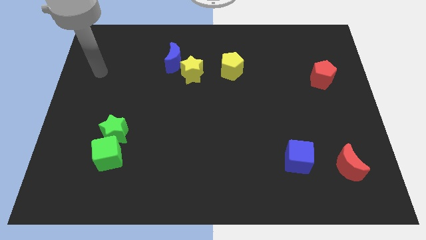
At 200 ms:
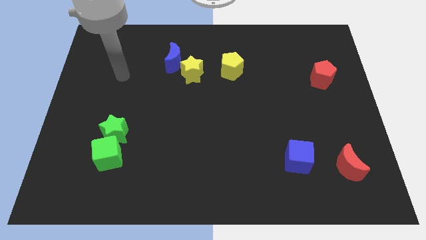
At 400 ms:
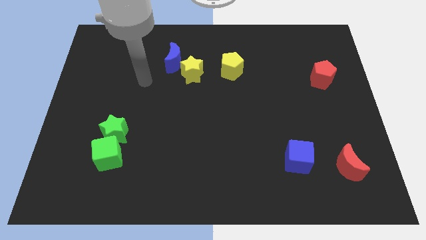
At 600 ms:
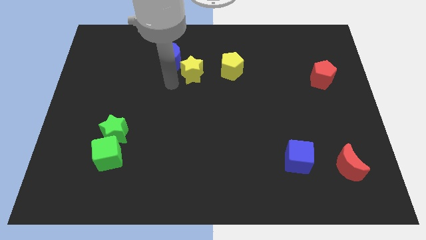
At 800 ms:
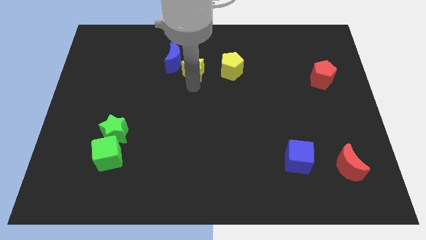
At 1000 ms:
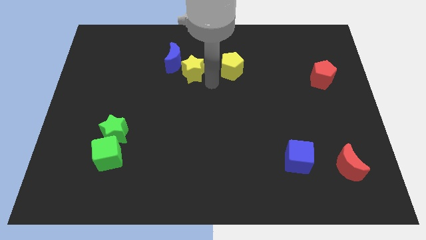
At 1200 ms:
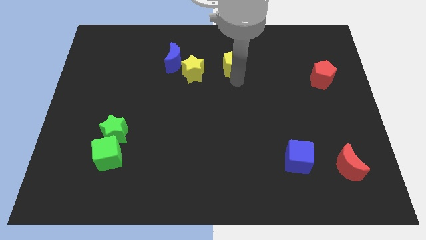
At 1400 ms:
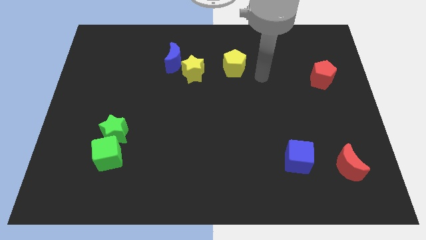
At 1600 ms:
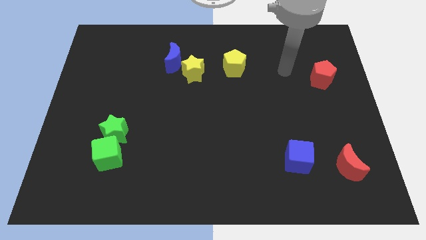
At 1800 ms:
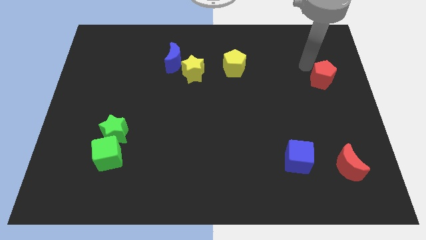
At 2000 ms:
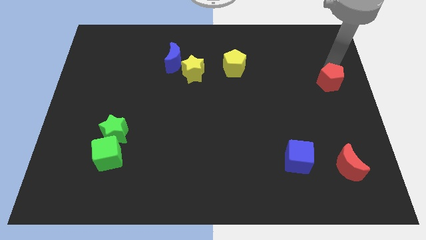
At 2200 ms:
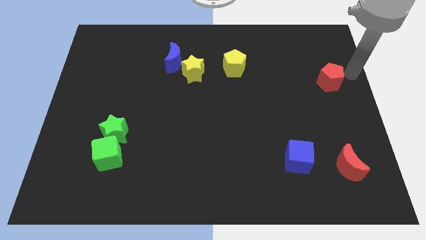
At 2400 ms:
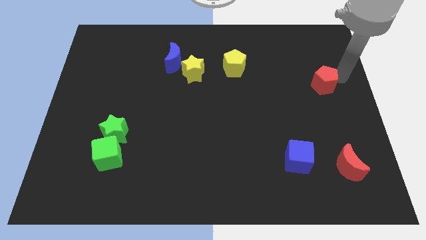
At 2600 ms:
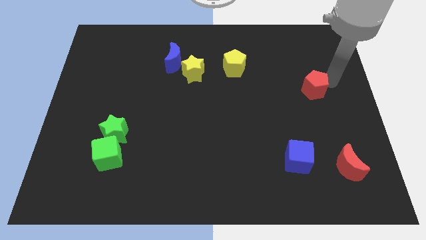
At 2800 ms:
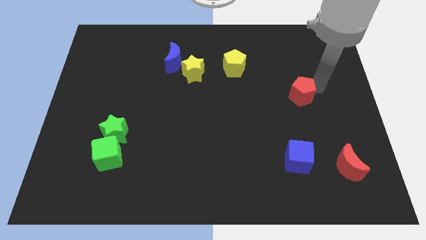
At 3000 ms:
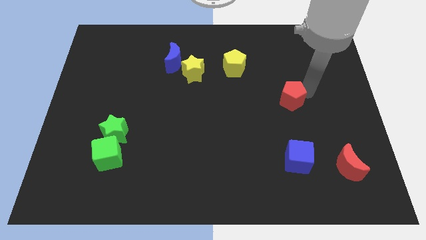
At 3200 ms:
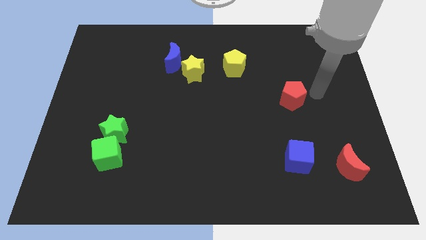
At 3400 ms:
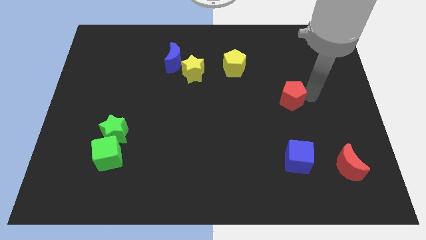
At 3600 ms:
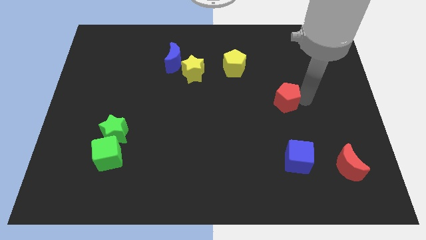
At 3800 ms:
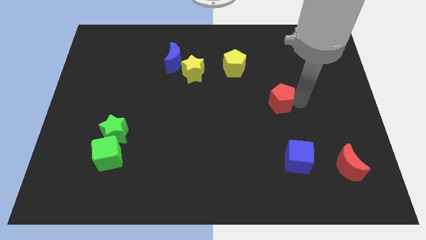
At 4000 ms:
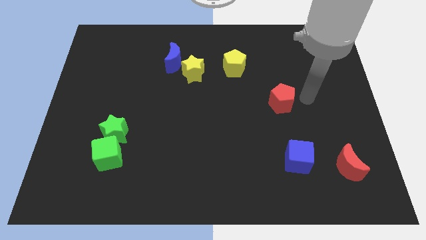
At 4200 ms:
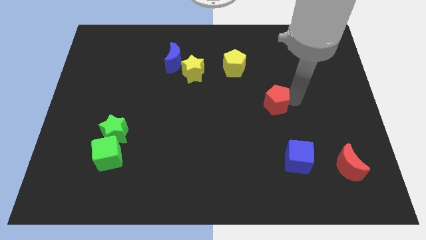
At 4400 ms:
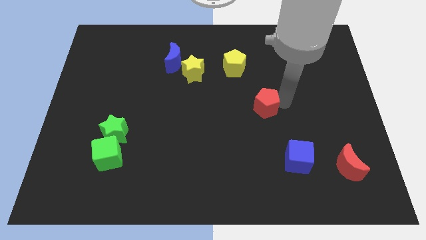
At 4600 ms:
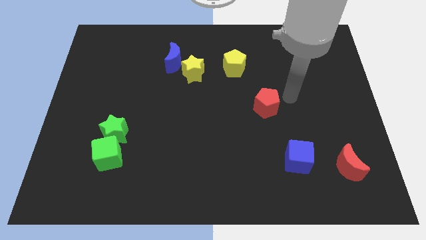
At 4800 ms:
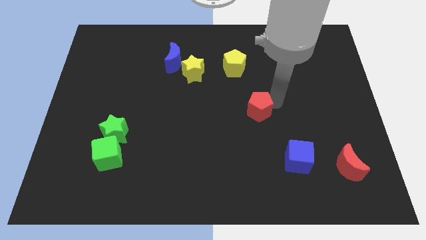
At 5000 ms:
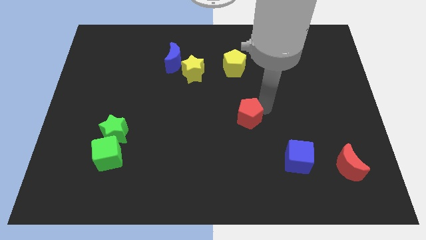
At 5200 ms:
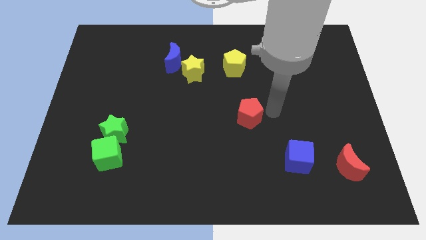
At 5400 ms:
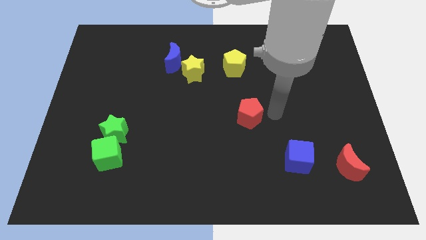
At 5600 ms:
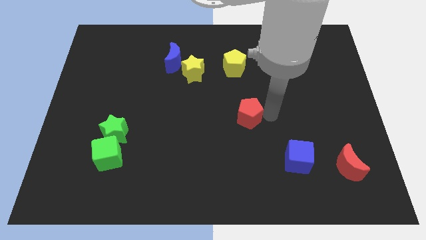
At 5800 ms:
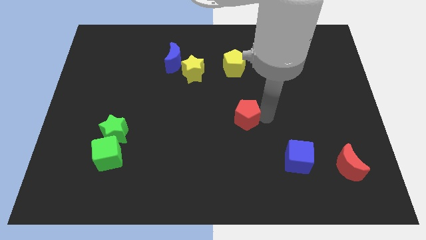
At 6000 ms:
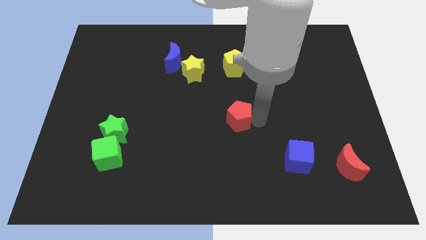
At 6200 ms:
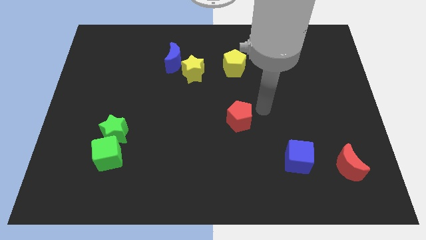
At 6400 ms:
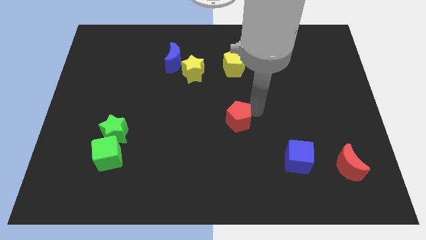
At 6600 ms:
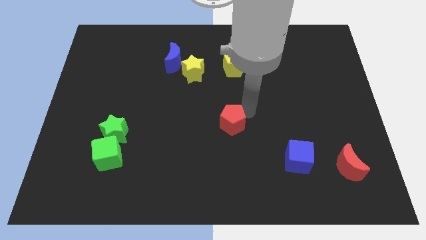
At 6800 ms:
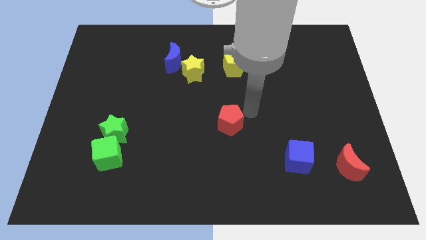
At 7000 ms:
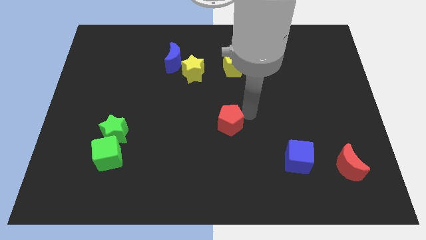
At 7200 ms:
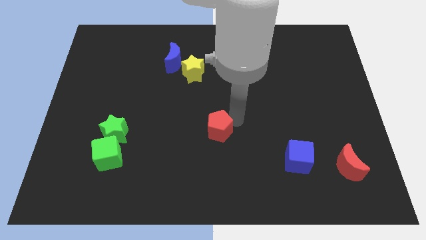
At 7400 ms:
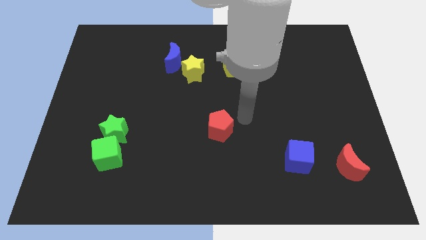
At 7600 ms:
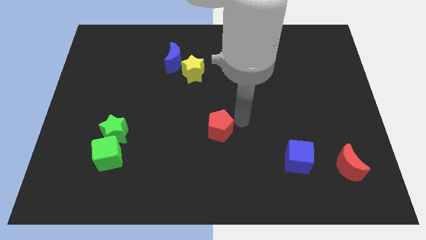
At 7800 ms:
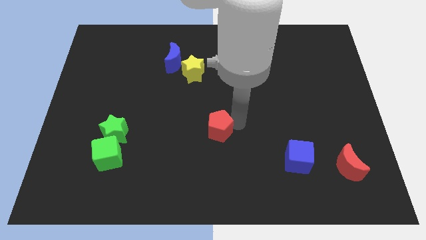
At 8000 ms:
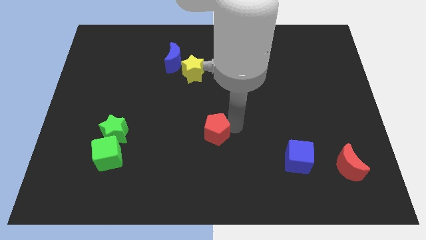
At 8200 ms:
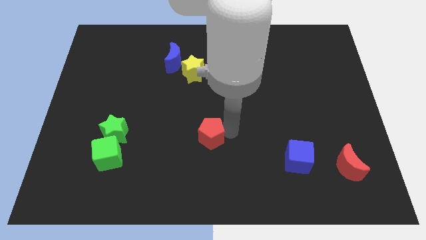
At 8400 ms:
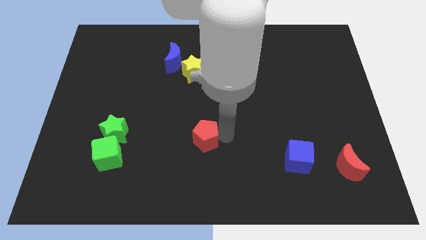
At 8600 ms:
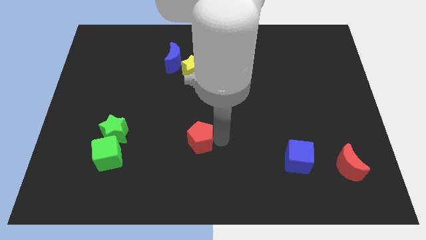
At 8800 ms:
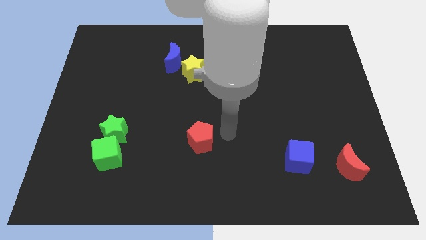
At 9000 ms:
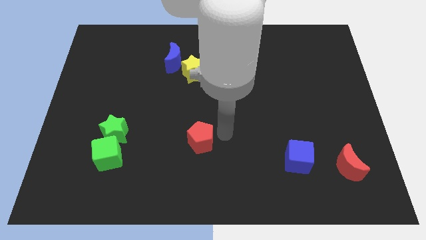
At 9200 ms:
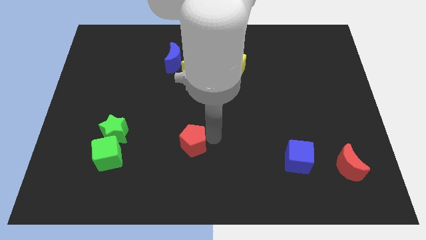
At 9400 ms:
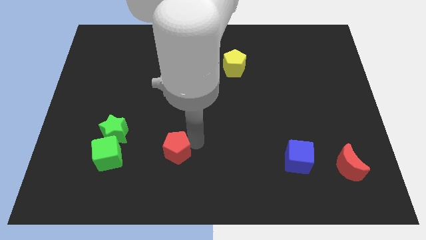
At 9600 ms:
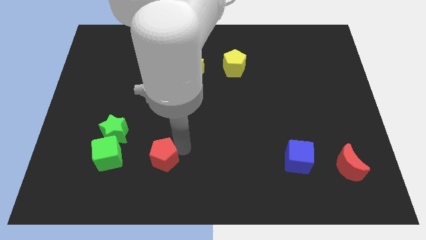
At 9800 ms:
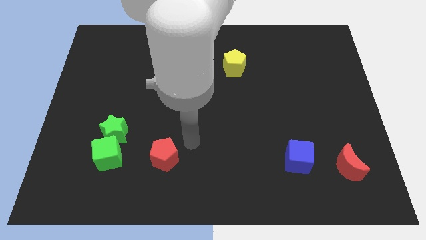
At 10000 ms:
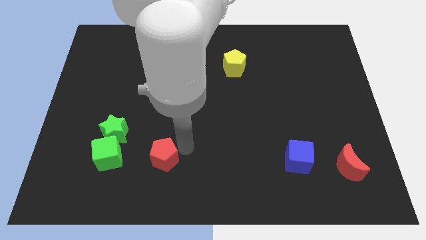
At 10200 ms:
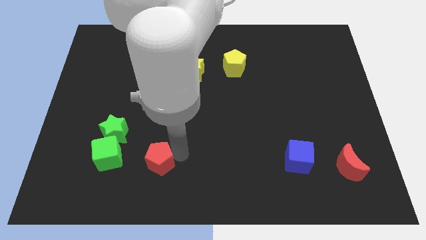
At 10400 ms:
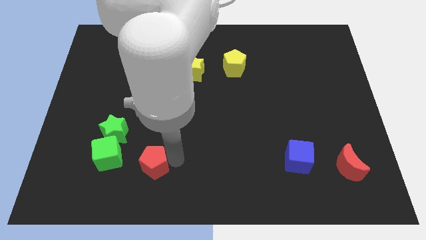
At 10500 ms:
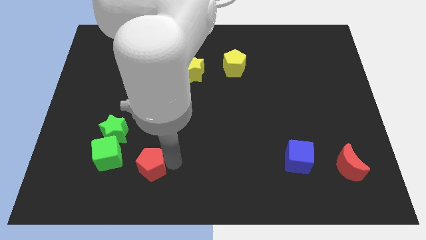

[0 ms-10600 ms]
slide the red pentagon diagonally down and to the right of the green cube

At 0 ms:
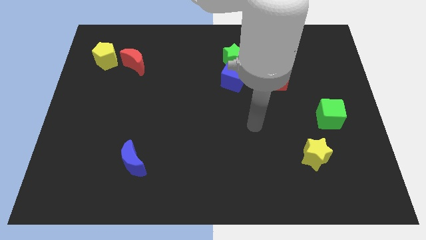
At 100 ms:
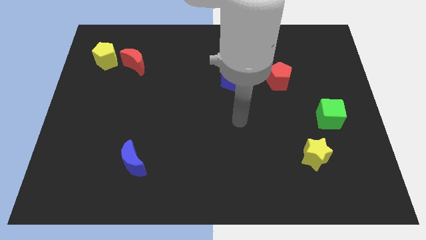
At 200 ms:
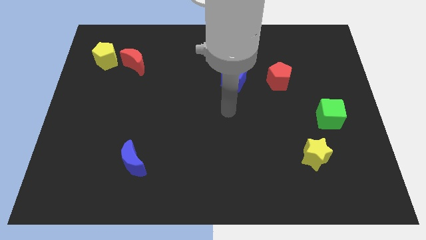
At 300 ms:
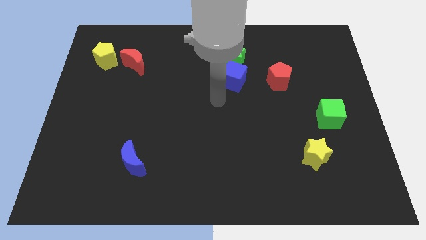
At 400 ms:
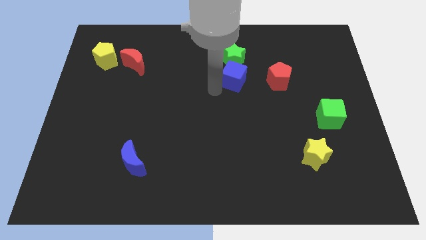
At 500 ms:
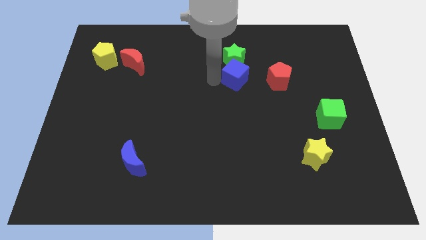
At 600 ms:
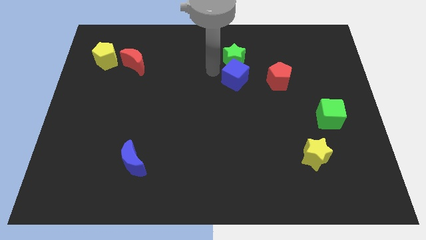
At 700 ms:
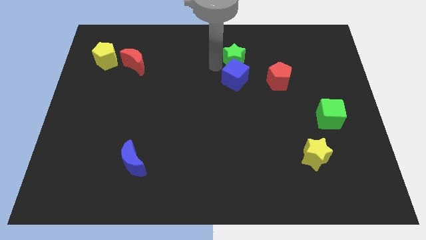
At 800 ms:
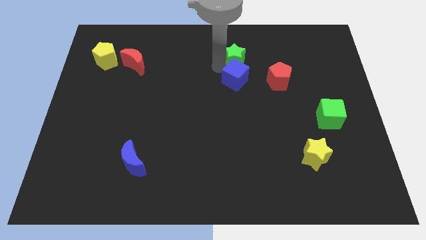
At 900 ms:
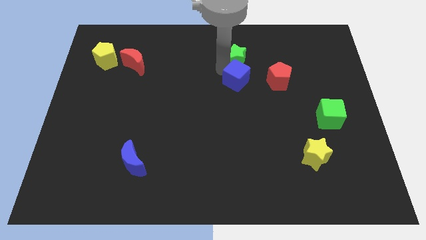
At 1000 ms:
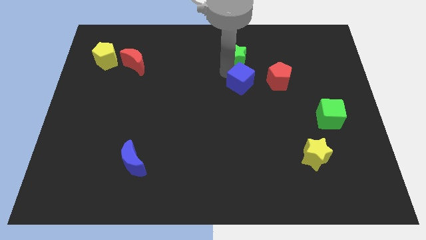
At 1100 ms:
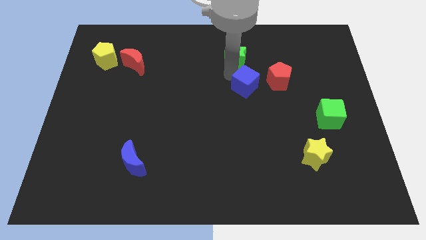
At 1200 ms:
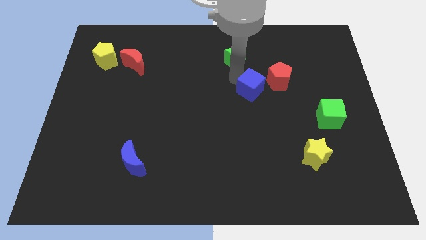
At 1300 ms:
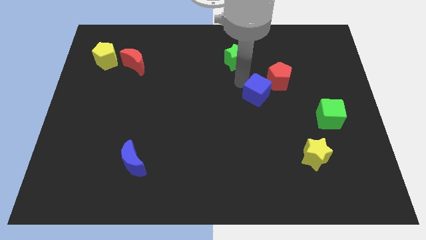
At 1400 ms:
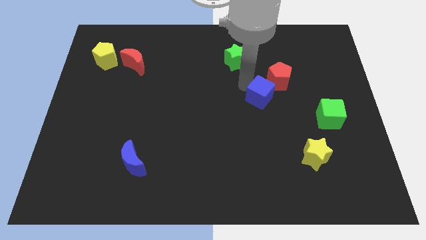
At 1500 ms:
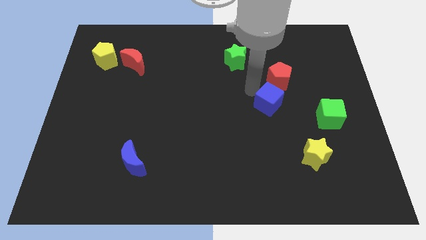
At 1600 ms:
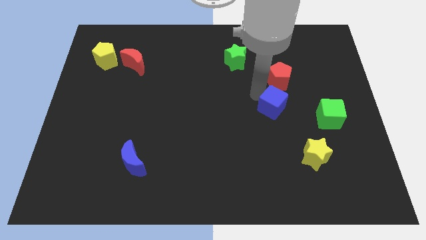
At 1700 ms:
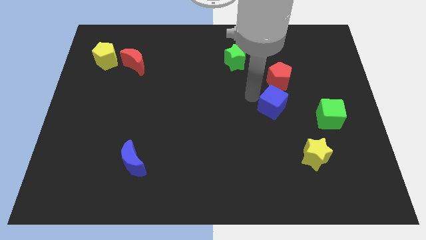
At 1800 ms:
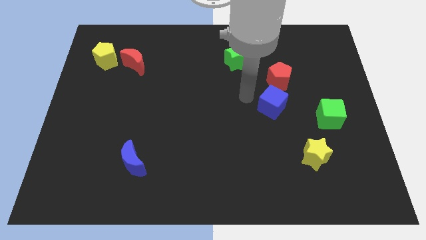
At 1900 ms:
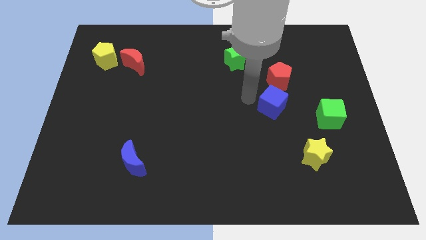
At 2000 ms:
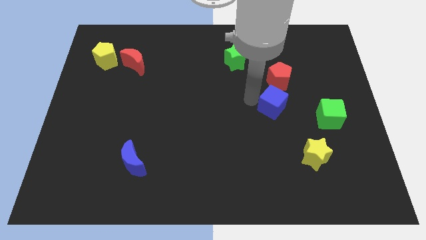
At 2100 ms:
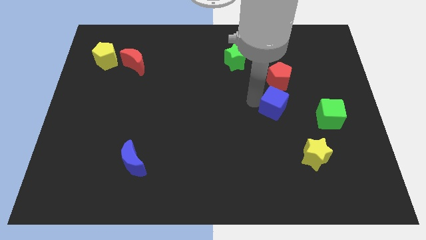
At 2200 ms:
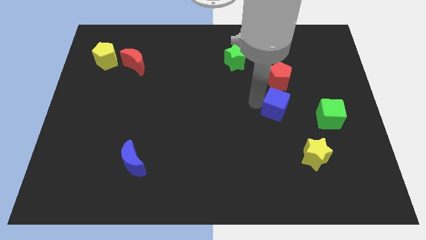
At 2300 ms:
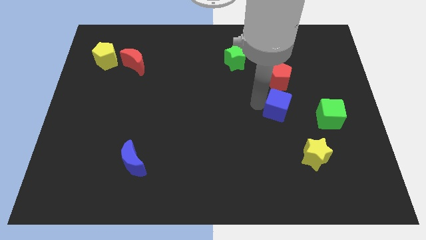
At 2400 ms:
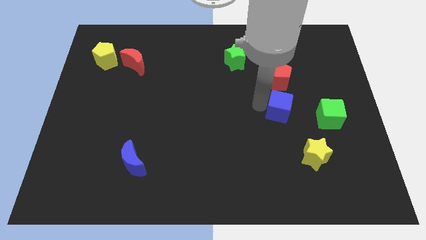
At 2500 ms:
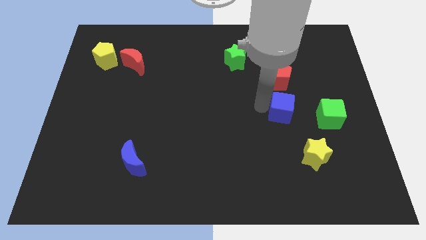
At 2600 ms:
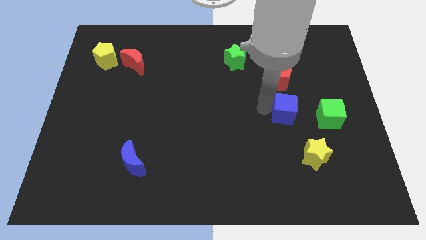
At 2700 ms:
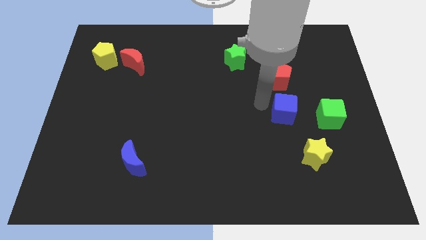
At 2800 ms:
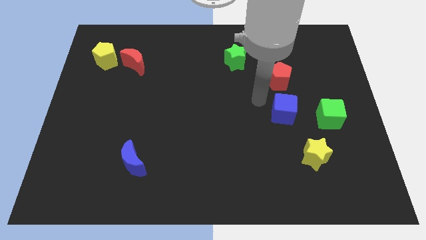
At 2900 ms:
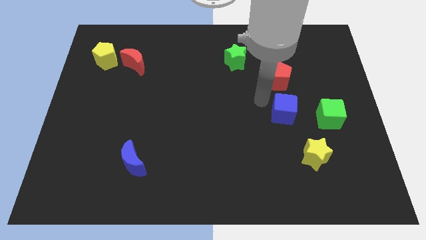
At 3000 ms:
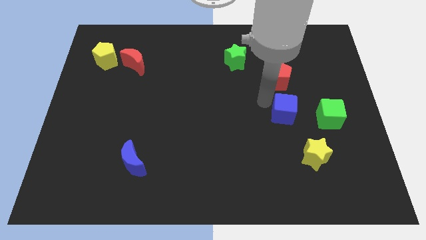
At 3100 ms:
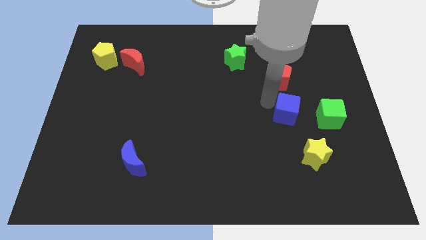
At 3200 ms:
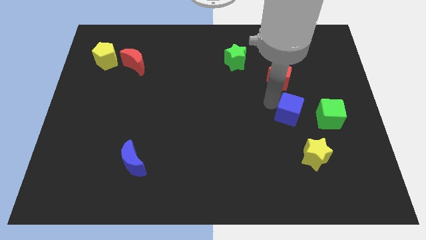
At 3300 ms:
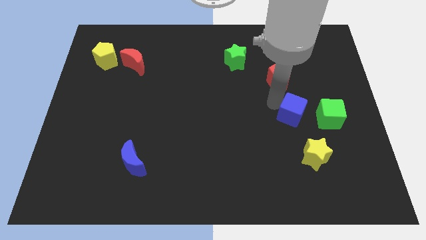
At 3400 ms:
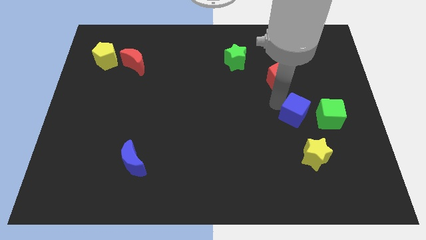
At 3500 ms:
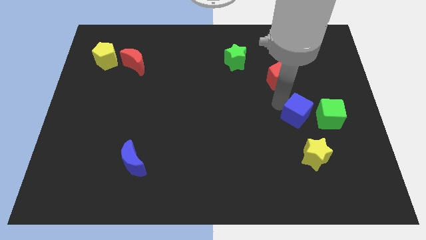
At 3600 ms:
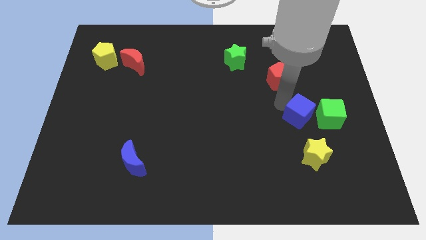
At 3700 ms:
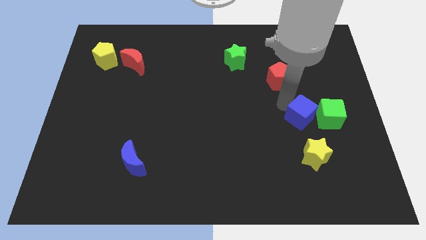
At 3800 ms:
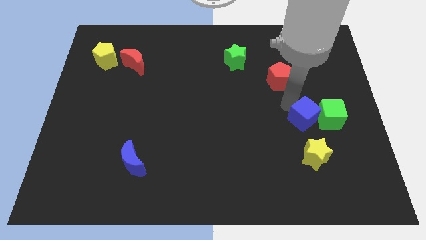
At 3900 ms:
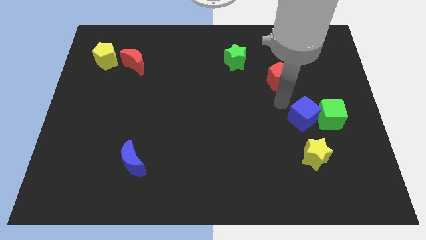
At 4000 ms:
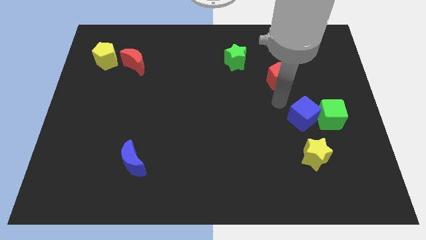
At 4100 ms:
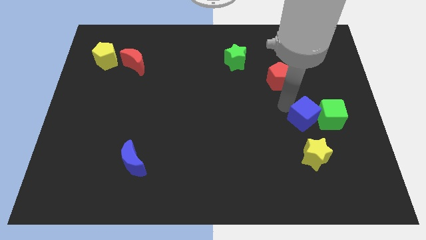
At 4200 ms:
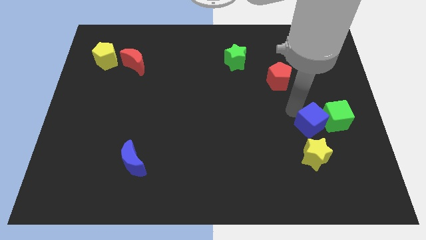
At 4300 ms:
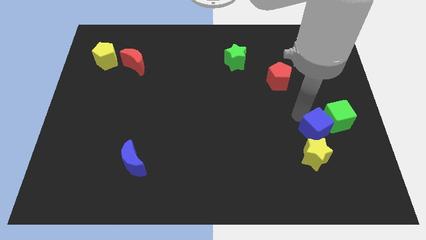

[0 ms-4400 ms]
put the blue cube to the top right side of the yellow star
